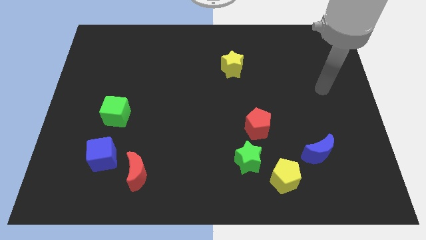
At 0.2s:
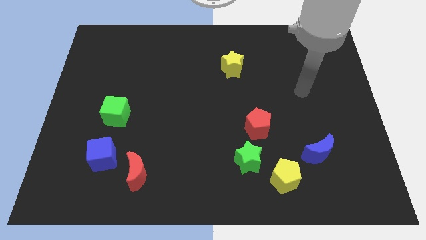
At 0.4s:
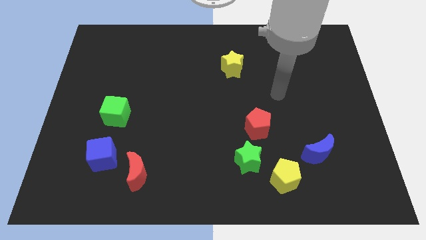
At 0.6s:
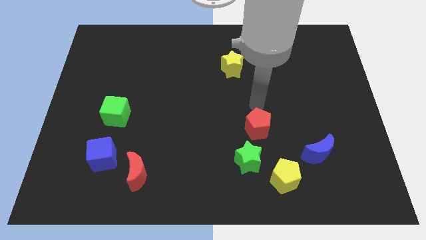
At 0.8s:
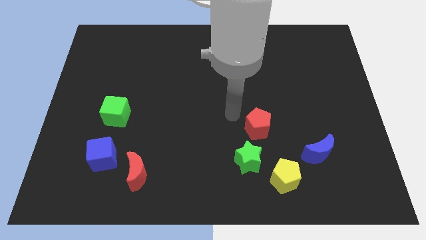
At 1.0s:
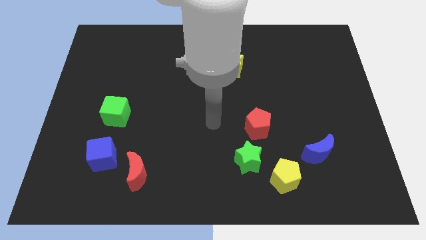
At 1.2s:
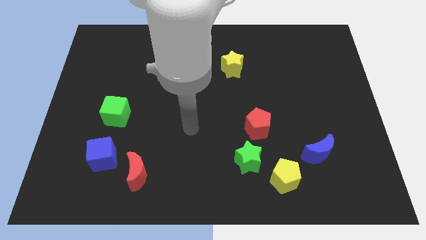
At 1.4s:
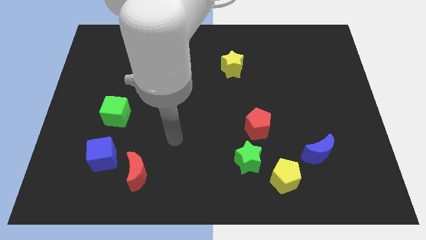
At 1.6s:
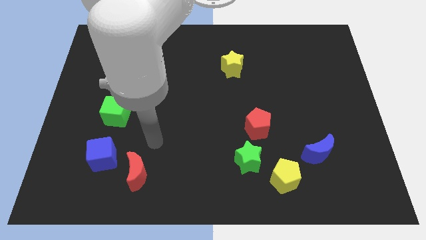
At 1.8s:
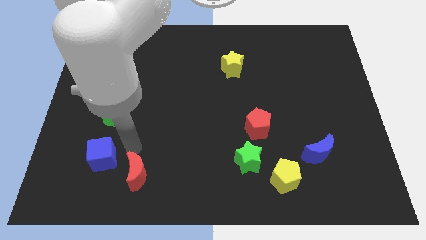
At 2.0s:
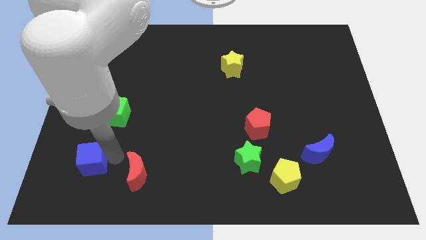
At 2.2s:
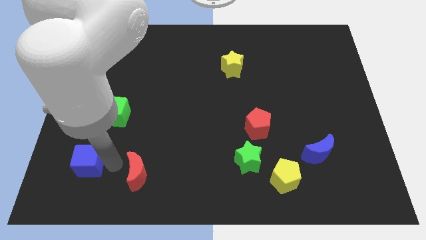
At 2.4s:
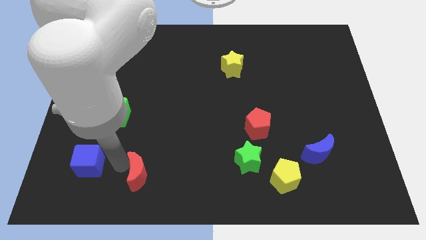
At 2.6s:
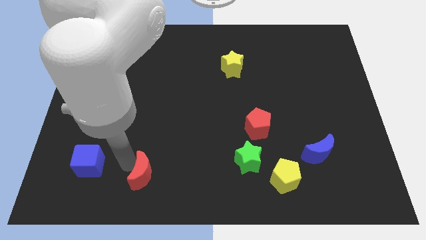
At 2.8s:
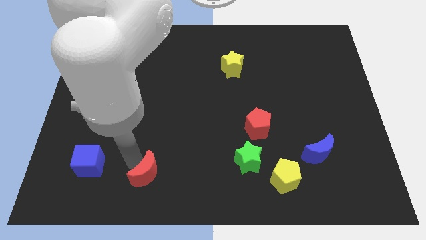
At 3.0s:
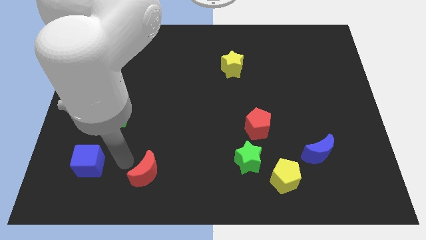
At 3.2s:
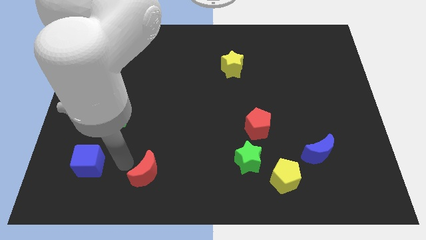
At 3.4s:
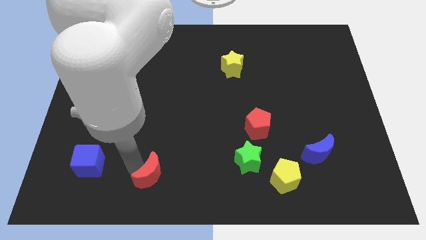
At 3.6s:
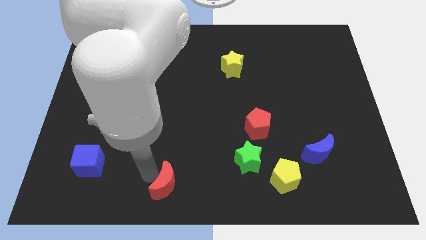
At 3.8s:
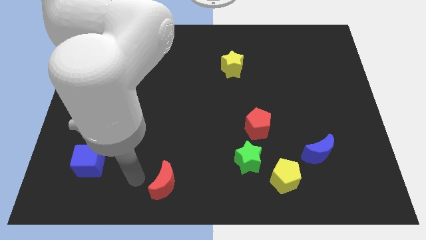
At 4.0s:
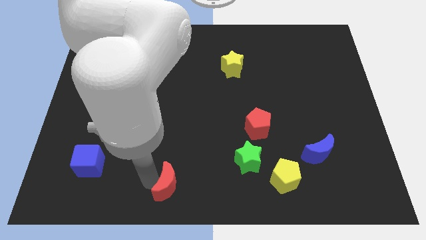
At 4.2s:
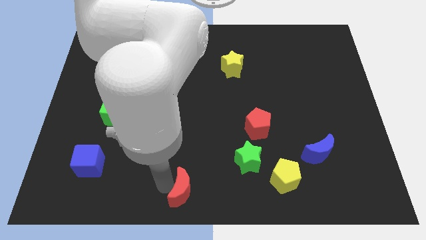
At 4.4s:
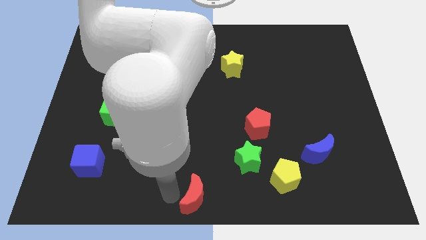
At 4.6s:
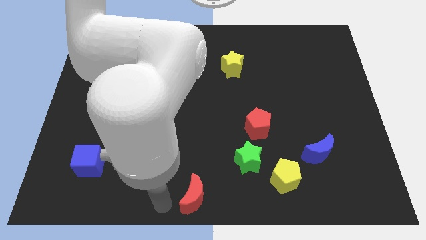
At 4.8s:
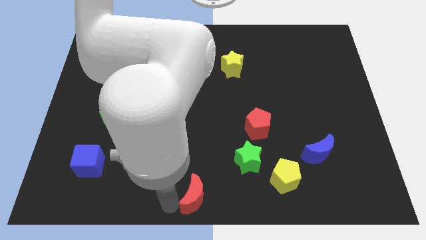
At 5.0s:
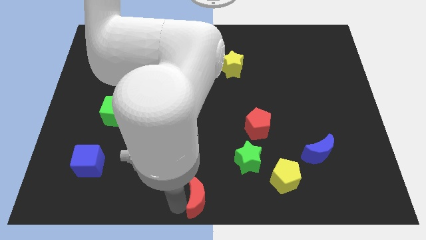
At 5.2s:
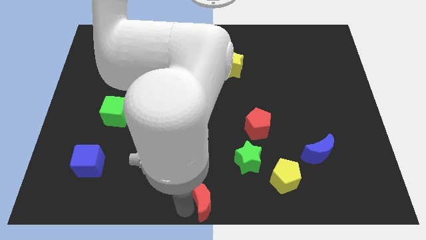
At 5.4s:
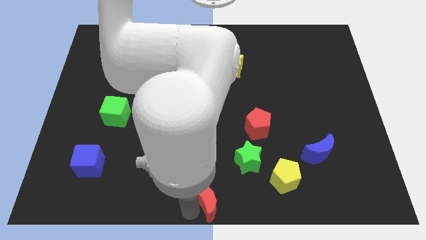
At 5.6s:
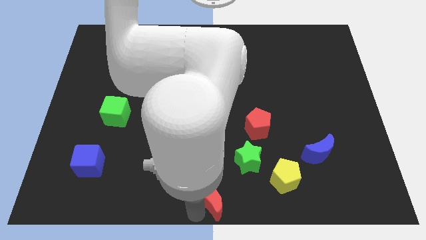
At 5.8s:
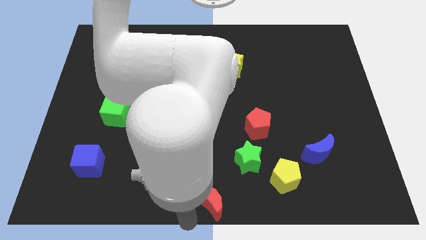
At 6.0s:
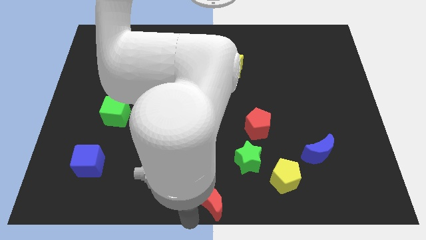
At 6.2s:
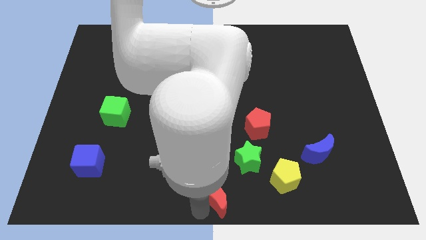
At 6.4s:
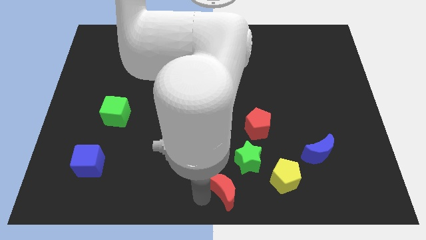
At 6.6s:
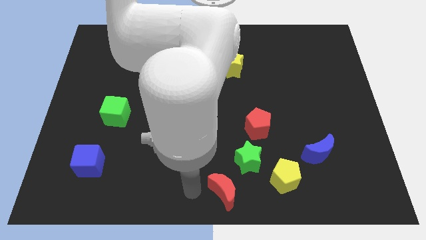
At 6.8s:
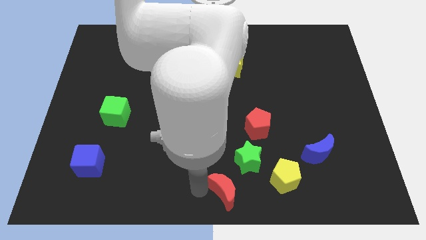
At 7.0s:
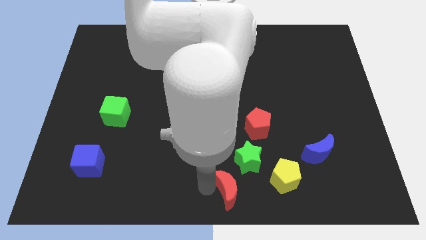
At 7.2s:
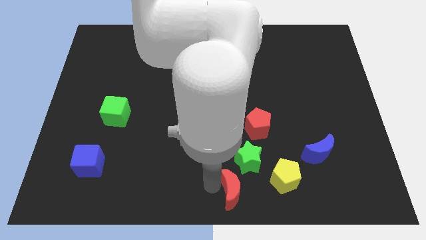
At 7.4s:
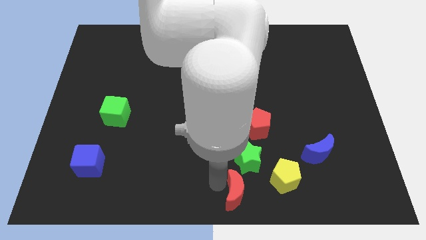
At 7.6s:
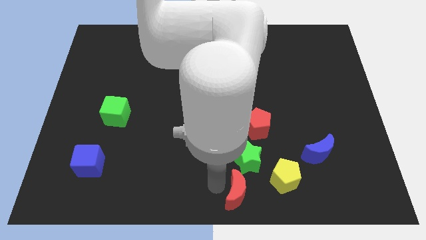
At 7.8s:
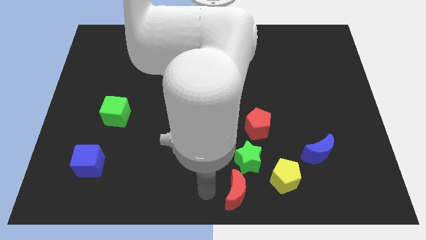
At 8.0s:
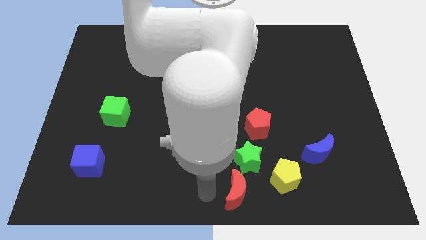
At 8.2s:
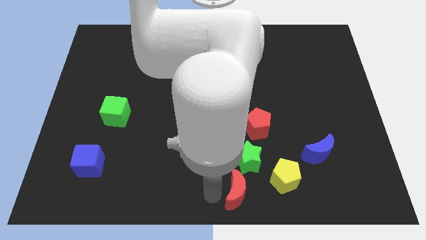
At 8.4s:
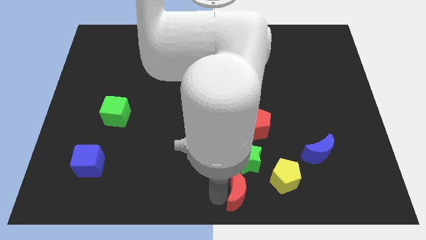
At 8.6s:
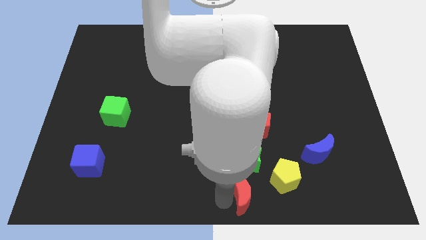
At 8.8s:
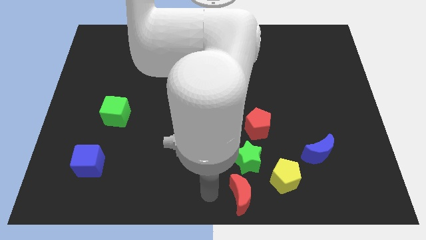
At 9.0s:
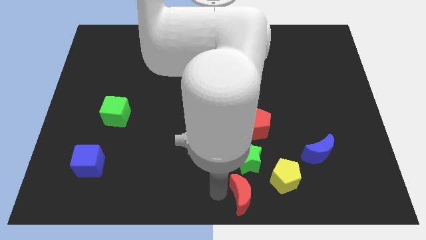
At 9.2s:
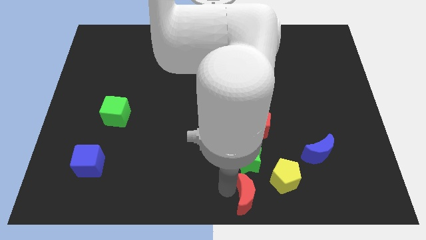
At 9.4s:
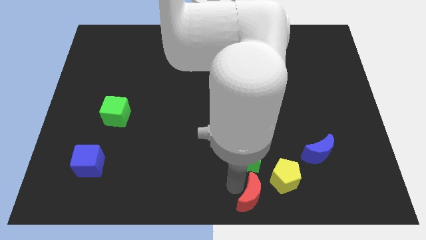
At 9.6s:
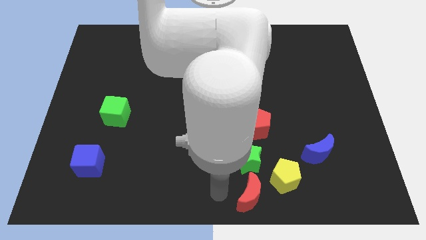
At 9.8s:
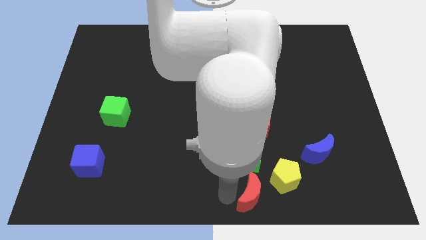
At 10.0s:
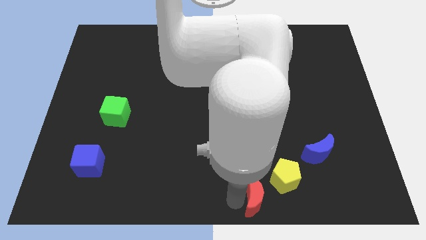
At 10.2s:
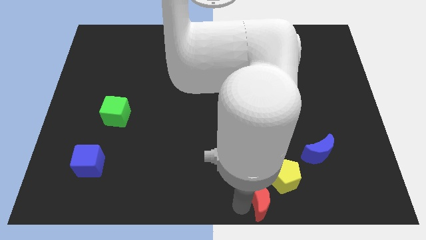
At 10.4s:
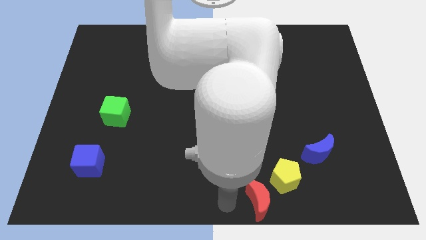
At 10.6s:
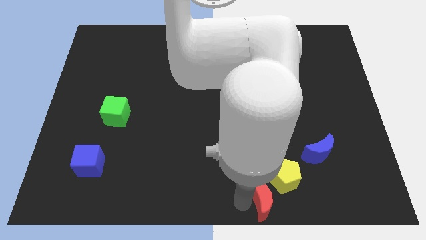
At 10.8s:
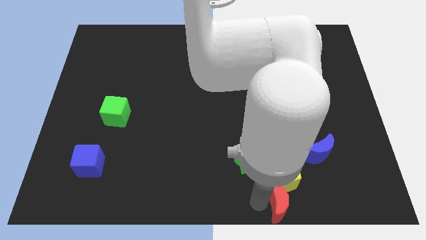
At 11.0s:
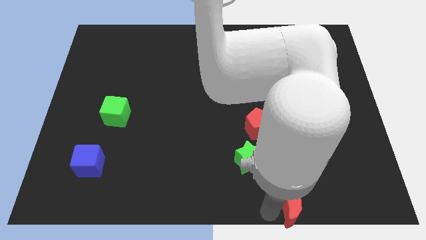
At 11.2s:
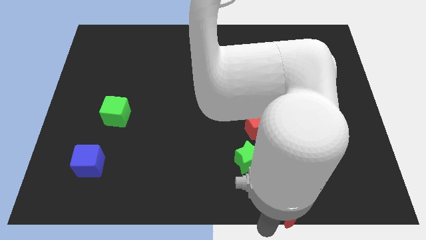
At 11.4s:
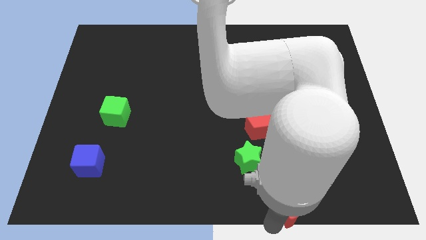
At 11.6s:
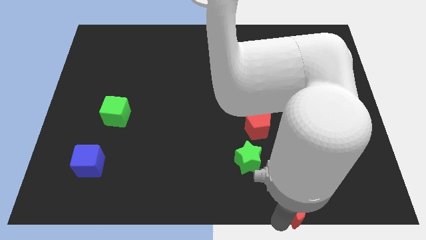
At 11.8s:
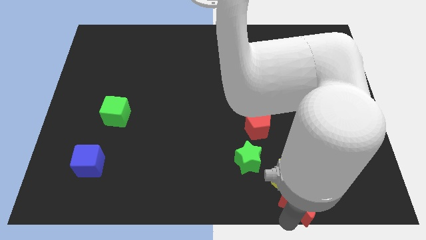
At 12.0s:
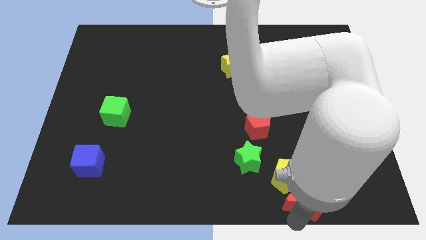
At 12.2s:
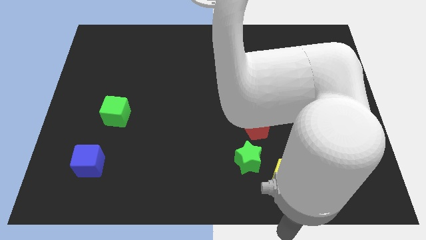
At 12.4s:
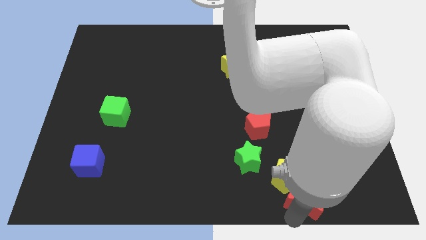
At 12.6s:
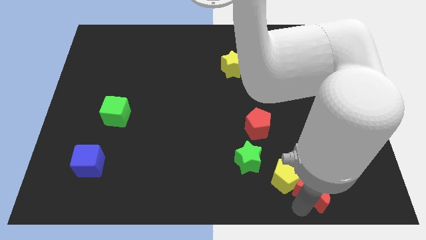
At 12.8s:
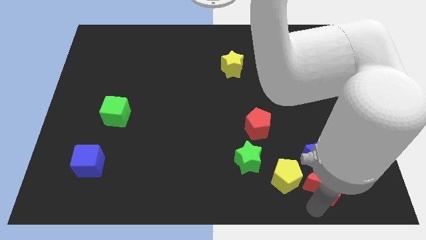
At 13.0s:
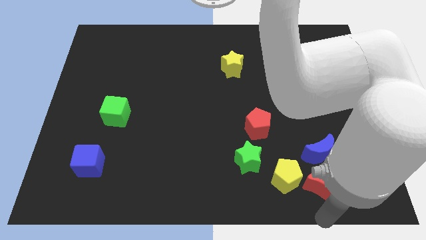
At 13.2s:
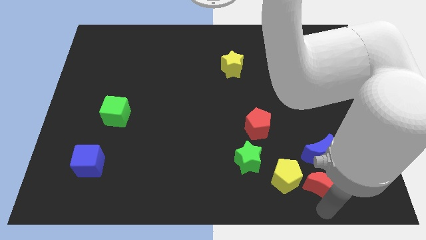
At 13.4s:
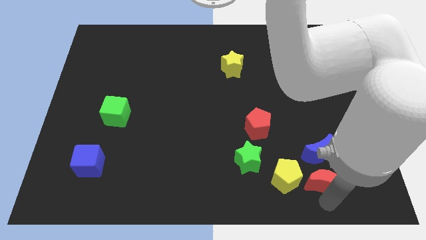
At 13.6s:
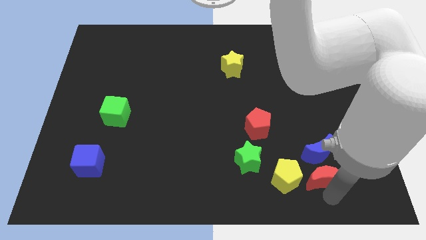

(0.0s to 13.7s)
move the red moon next to the blue moon

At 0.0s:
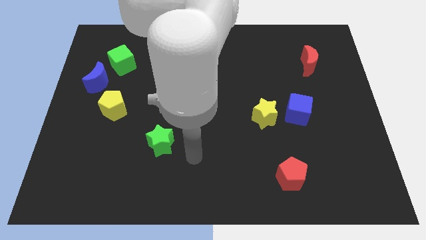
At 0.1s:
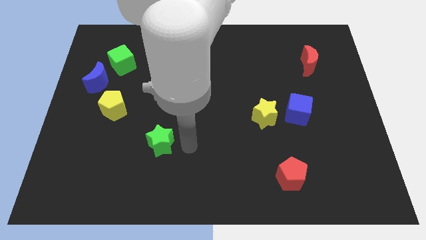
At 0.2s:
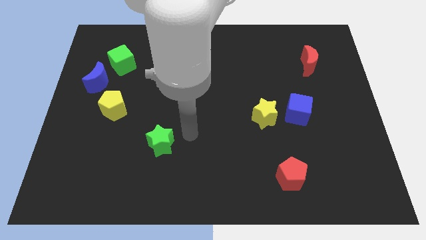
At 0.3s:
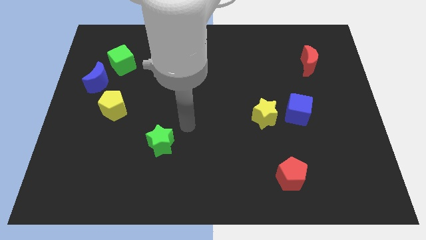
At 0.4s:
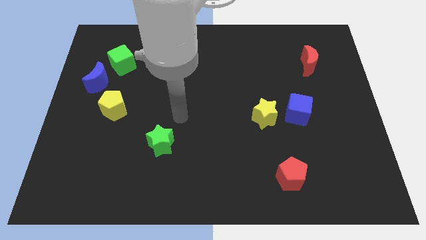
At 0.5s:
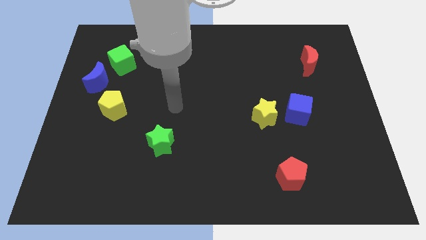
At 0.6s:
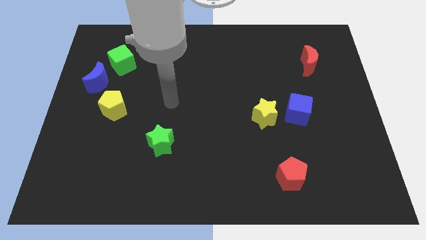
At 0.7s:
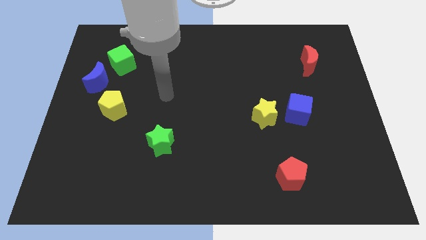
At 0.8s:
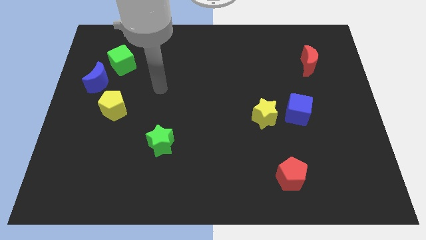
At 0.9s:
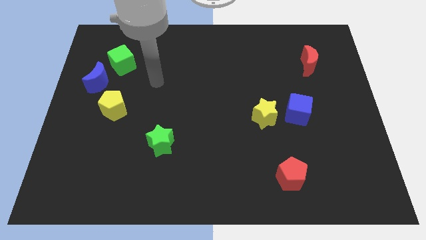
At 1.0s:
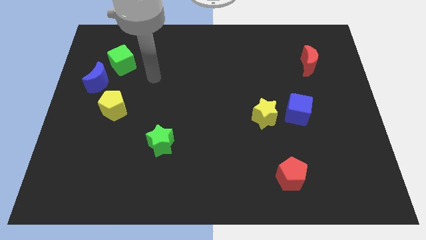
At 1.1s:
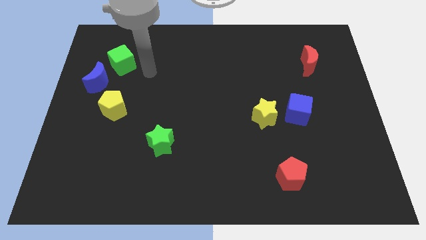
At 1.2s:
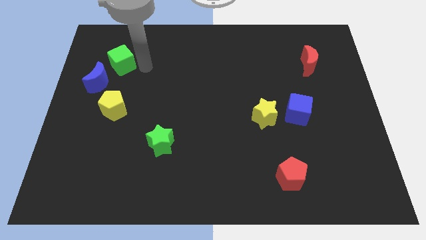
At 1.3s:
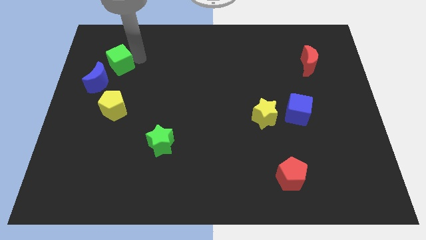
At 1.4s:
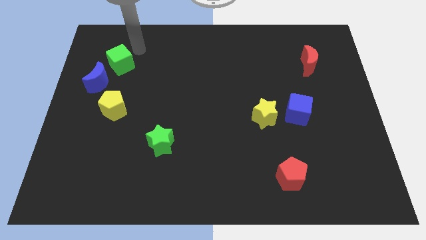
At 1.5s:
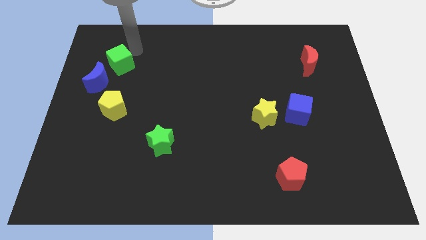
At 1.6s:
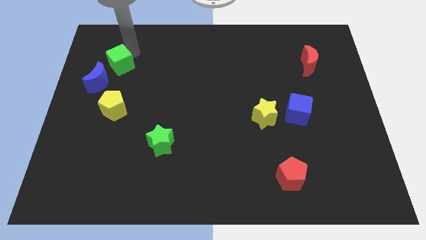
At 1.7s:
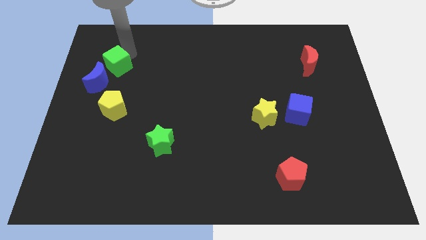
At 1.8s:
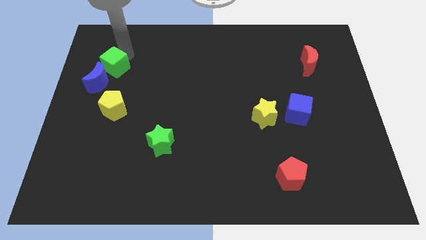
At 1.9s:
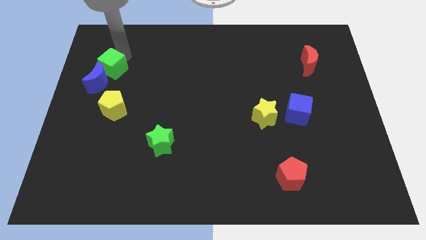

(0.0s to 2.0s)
push the green cube towards the blue moon
